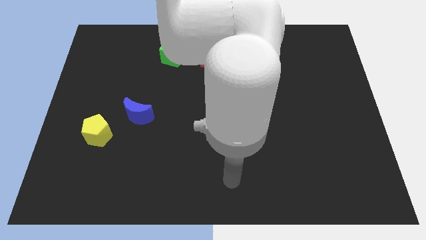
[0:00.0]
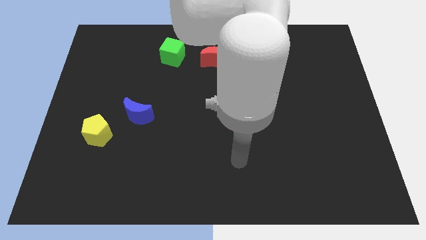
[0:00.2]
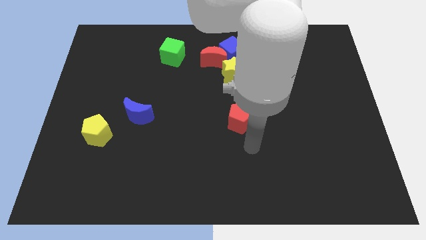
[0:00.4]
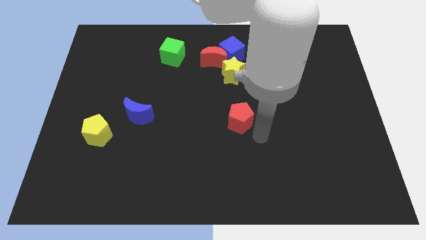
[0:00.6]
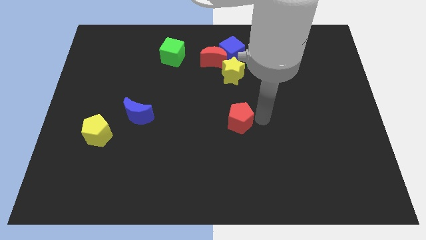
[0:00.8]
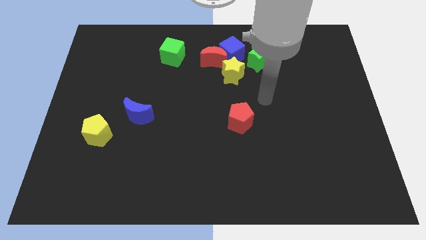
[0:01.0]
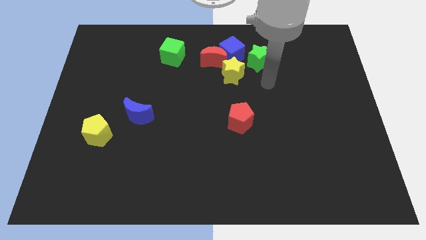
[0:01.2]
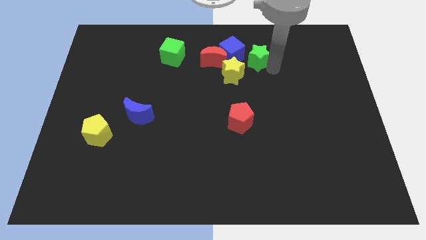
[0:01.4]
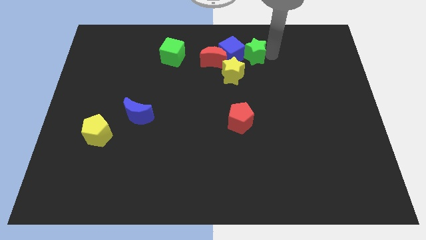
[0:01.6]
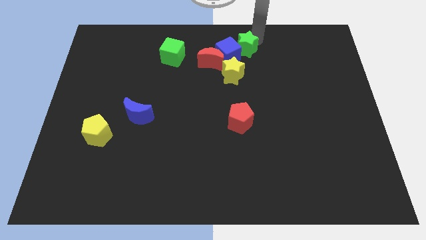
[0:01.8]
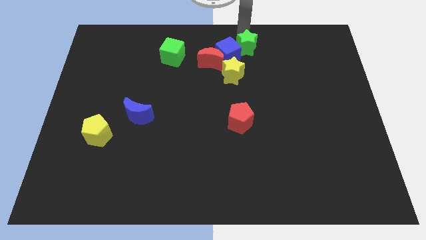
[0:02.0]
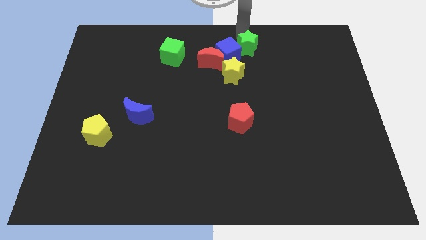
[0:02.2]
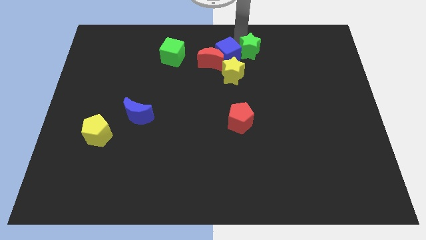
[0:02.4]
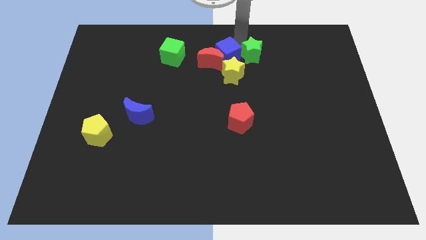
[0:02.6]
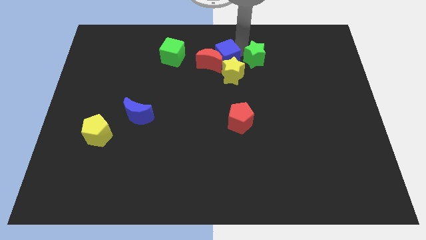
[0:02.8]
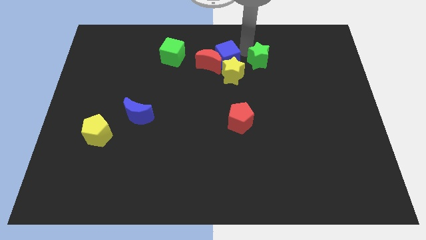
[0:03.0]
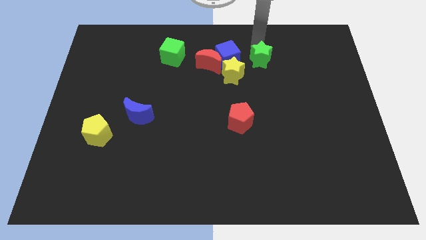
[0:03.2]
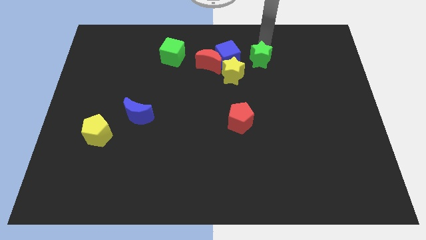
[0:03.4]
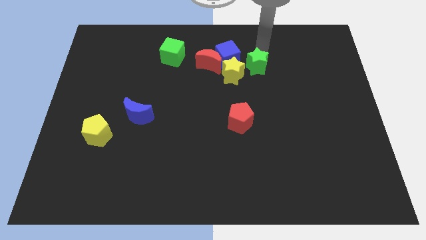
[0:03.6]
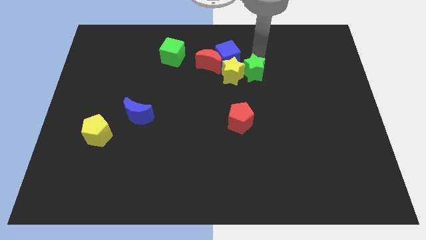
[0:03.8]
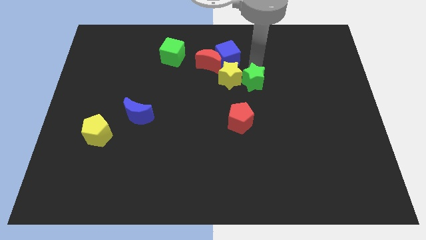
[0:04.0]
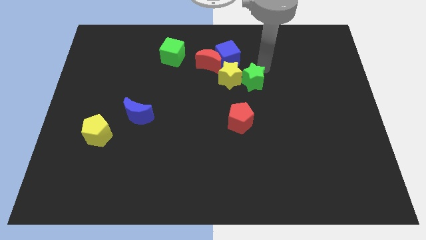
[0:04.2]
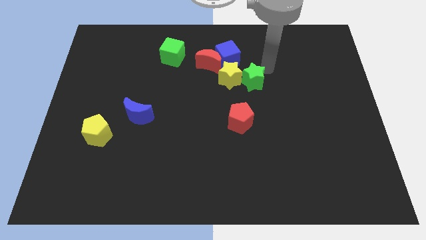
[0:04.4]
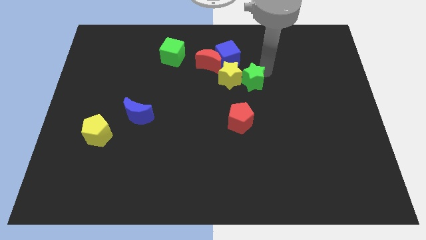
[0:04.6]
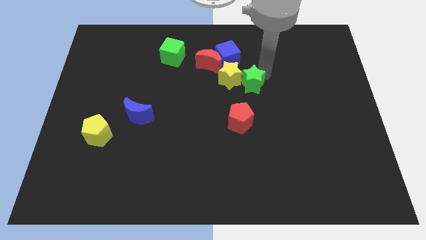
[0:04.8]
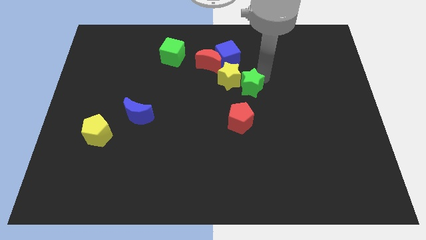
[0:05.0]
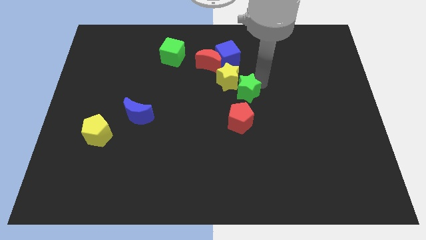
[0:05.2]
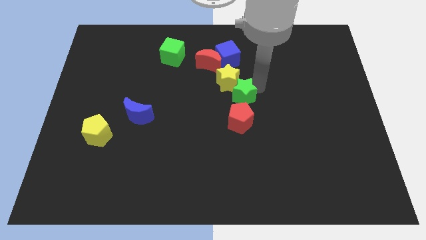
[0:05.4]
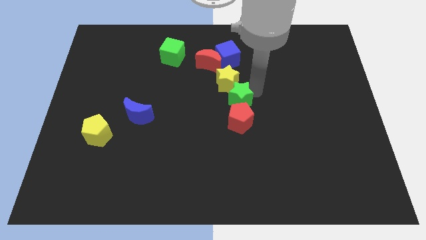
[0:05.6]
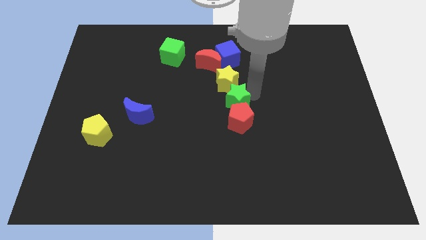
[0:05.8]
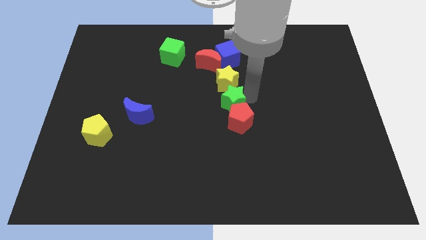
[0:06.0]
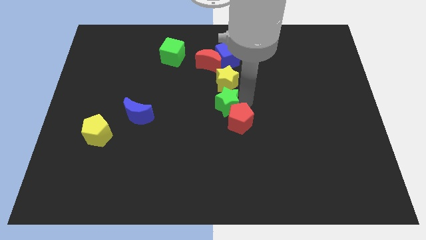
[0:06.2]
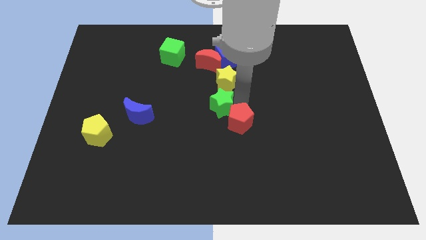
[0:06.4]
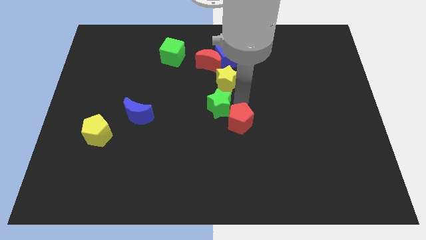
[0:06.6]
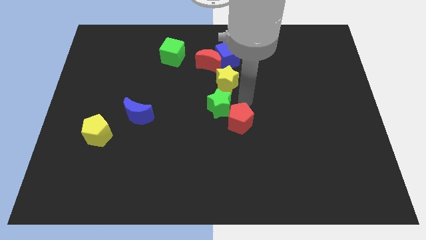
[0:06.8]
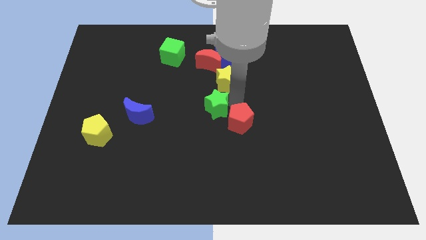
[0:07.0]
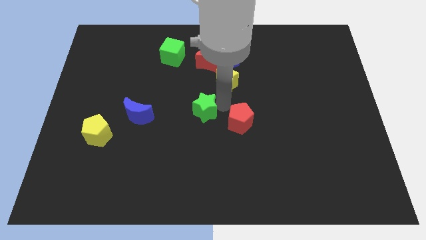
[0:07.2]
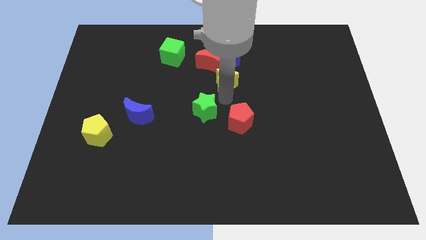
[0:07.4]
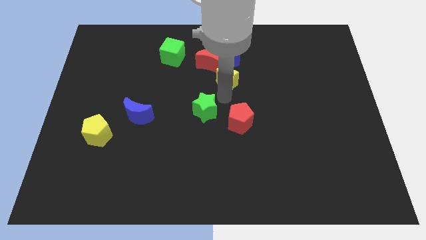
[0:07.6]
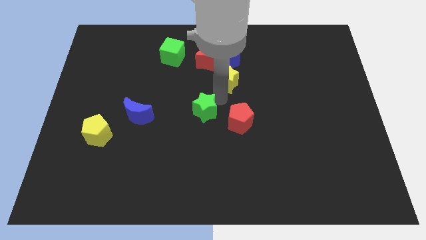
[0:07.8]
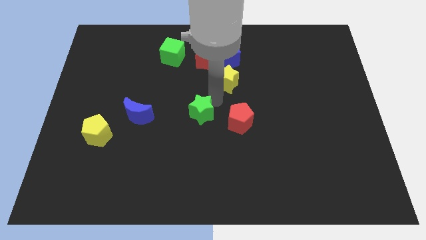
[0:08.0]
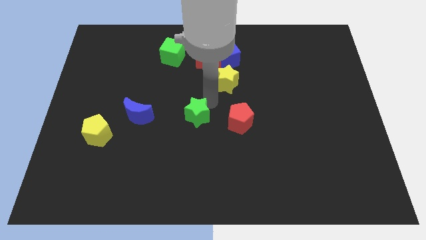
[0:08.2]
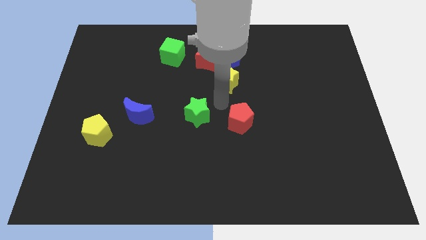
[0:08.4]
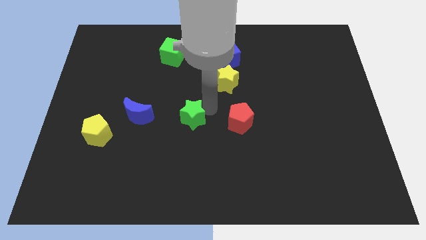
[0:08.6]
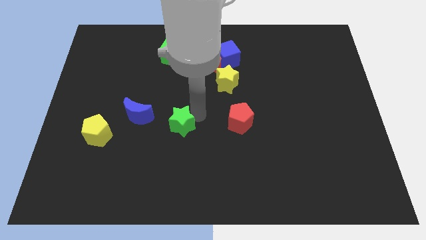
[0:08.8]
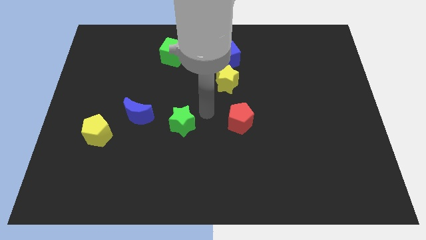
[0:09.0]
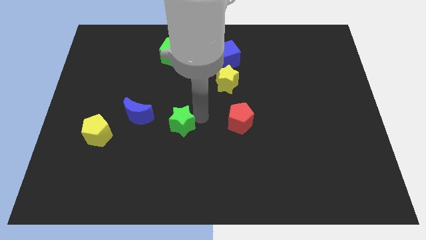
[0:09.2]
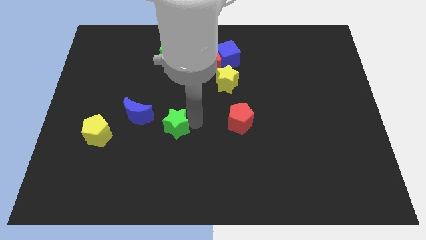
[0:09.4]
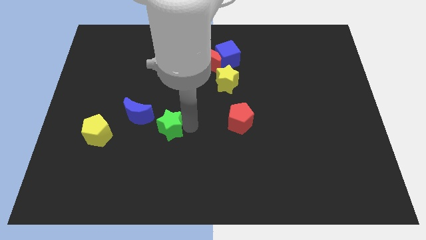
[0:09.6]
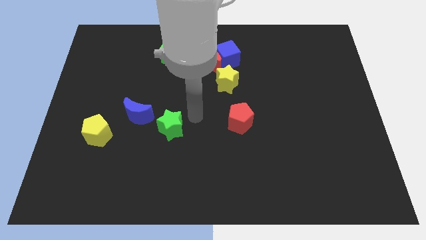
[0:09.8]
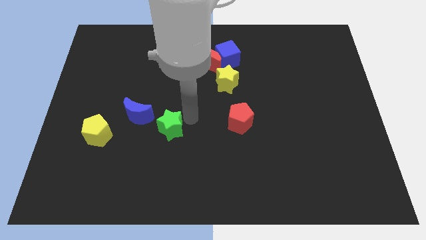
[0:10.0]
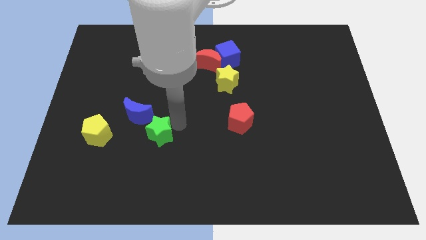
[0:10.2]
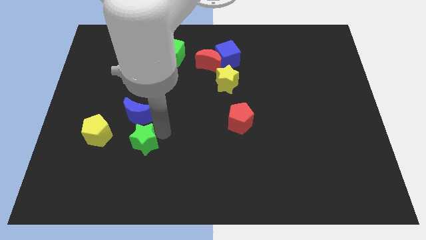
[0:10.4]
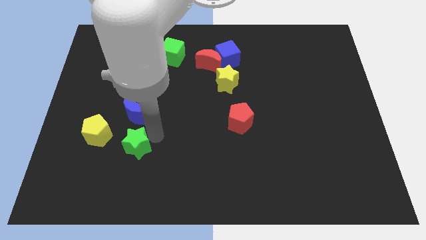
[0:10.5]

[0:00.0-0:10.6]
move the green star to the bottom right of the yellow pentagon

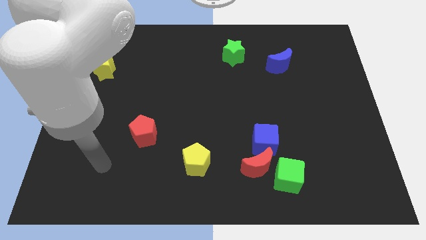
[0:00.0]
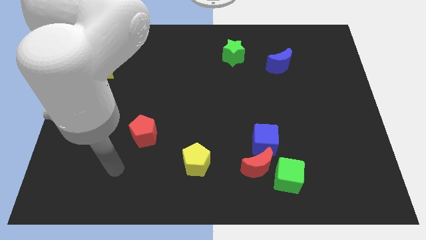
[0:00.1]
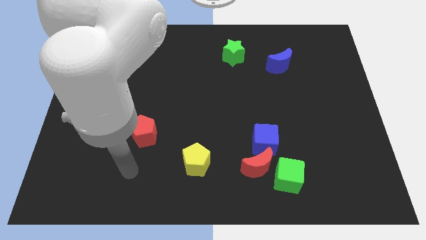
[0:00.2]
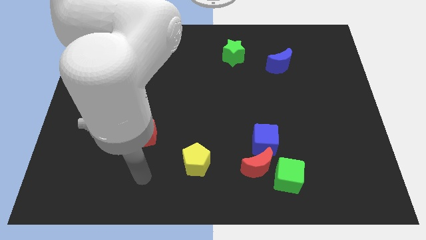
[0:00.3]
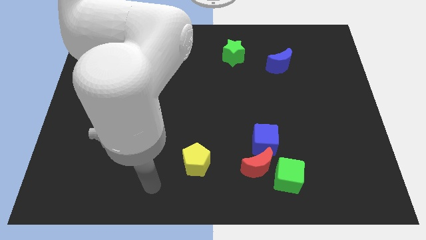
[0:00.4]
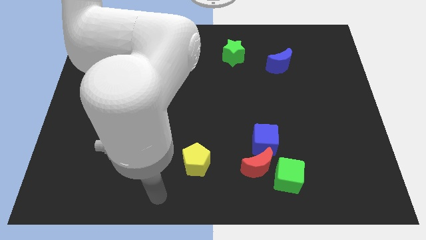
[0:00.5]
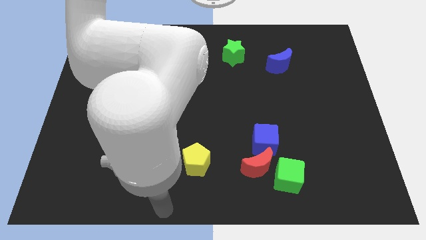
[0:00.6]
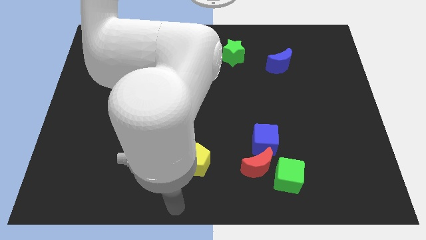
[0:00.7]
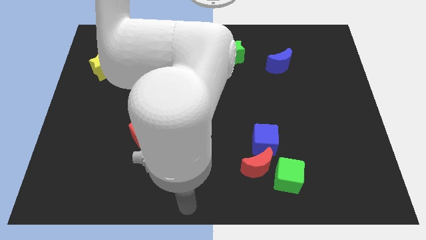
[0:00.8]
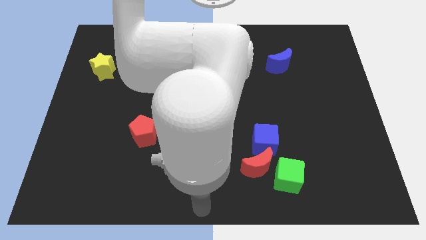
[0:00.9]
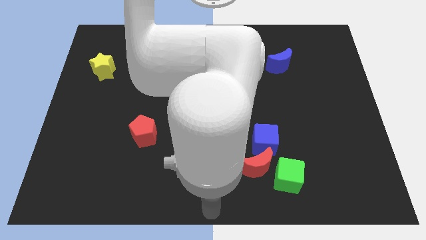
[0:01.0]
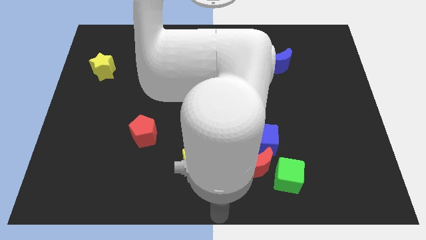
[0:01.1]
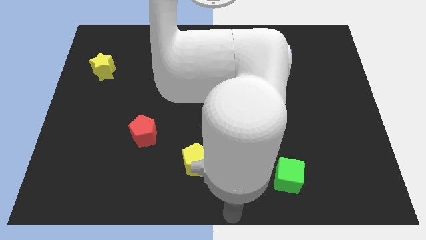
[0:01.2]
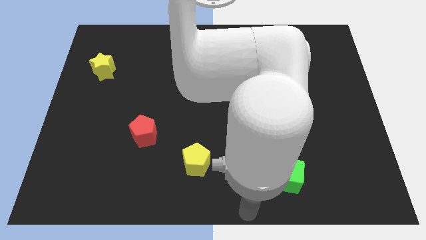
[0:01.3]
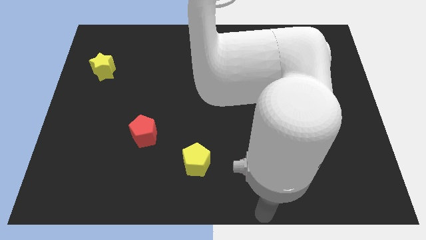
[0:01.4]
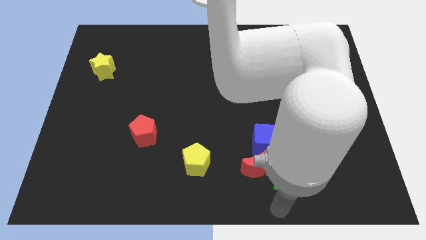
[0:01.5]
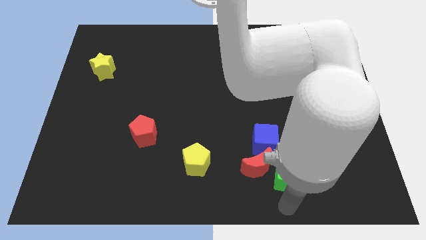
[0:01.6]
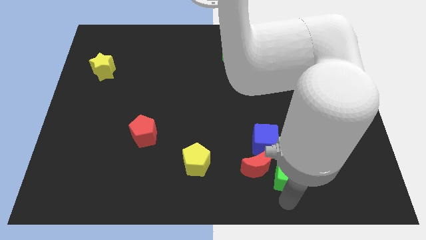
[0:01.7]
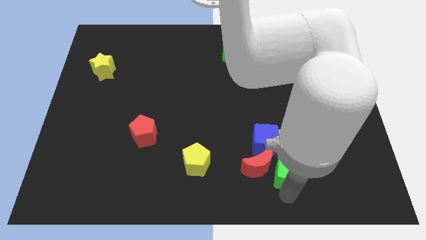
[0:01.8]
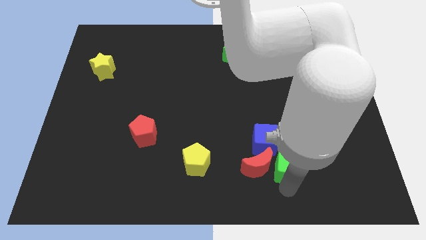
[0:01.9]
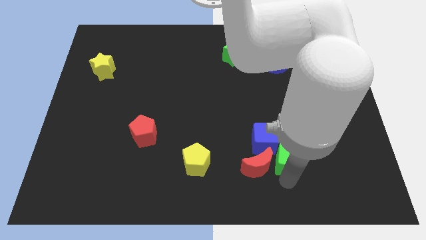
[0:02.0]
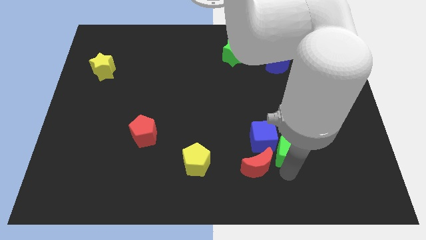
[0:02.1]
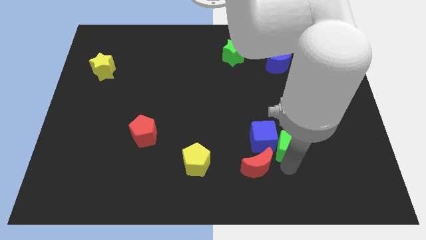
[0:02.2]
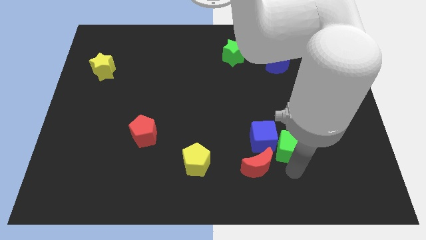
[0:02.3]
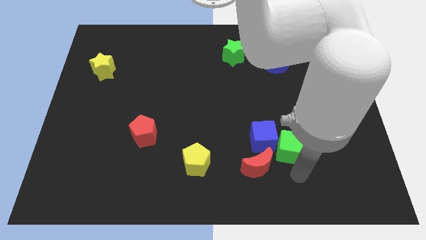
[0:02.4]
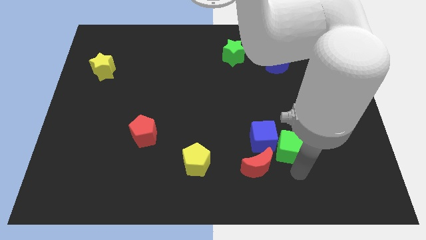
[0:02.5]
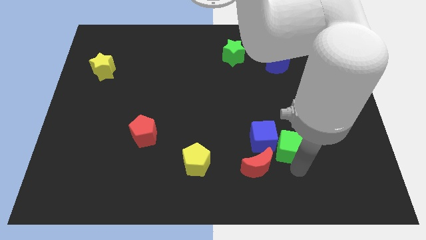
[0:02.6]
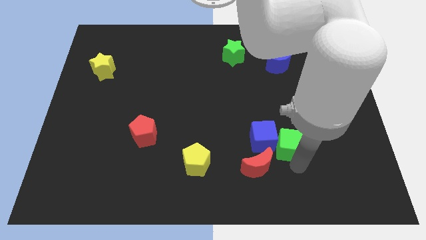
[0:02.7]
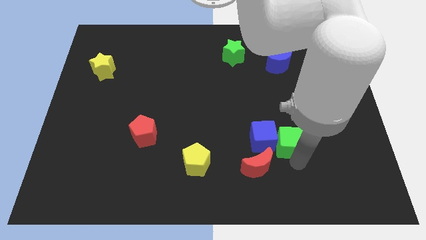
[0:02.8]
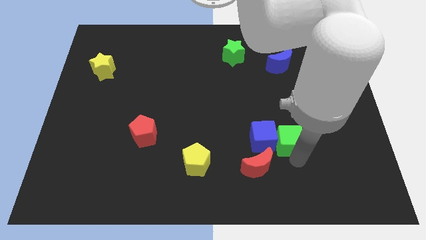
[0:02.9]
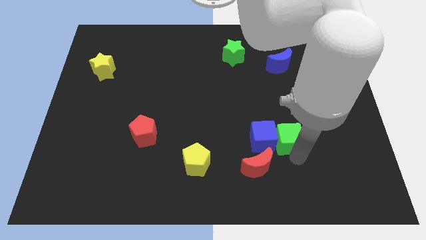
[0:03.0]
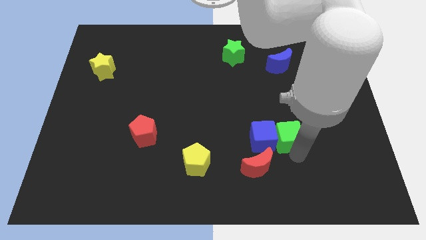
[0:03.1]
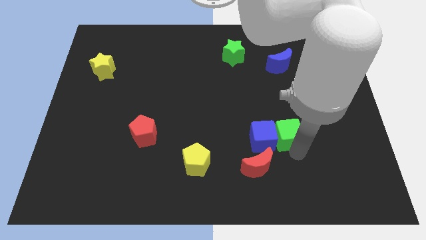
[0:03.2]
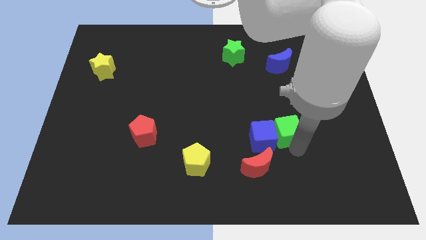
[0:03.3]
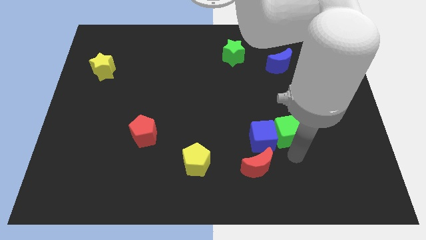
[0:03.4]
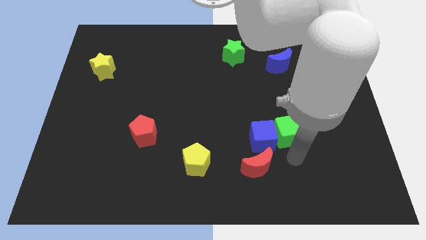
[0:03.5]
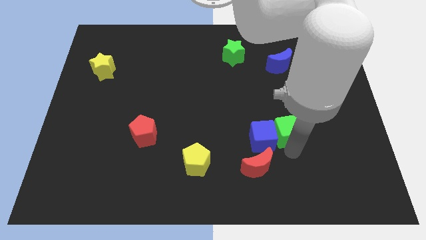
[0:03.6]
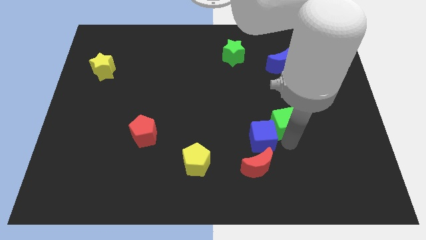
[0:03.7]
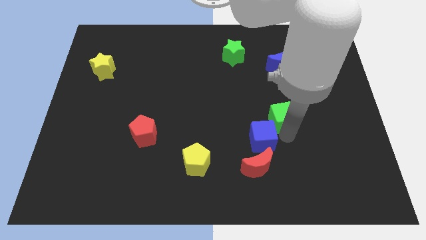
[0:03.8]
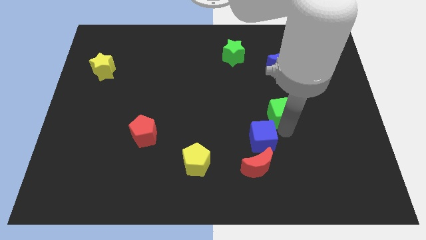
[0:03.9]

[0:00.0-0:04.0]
move the green cube below the blue moon
